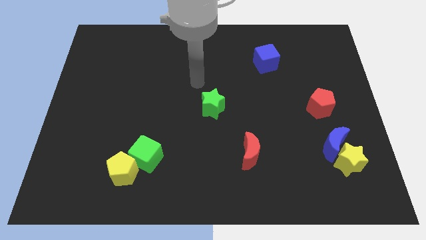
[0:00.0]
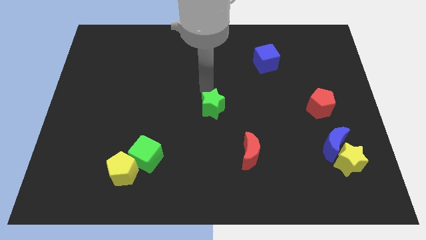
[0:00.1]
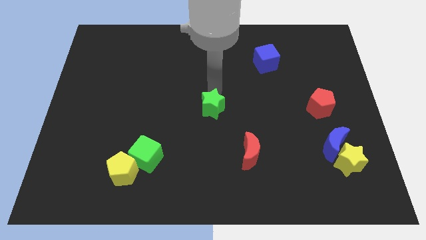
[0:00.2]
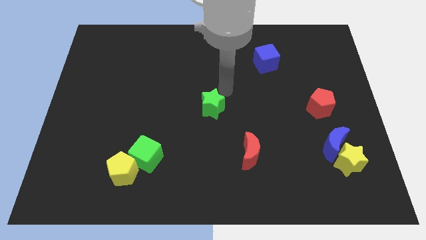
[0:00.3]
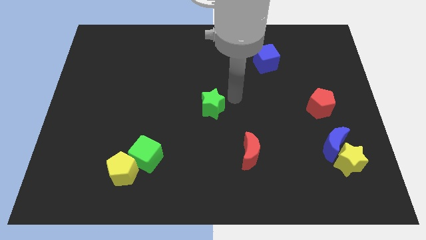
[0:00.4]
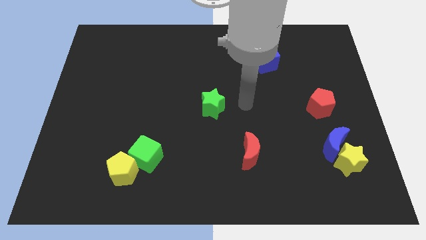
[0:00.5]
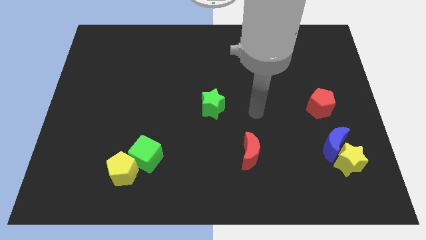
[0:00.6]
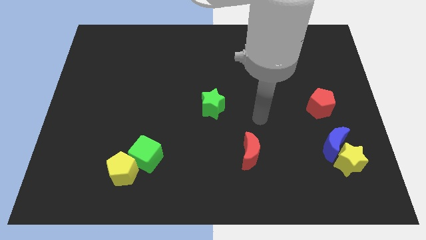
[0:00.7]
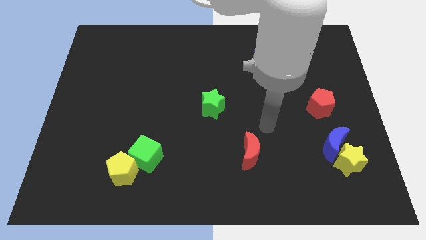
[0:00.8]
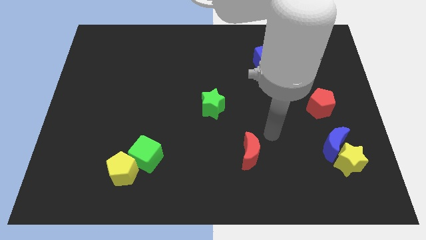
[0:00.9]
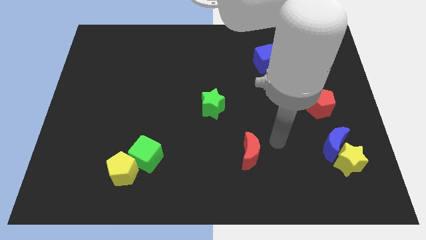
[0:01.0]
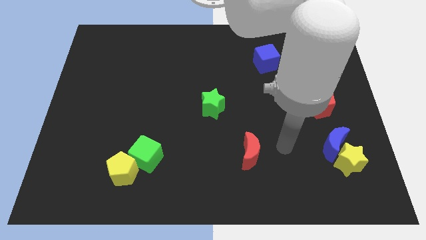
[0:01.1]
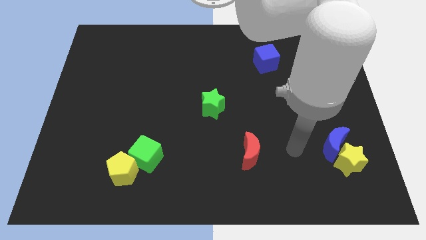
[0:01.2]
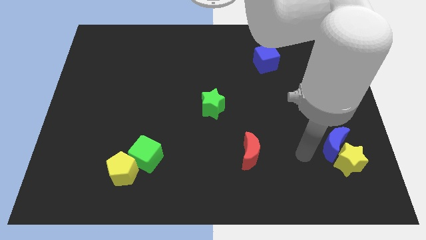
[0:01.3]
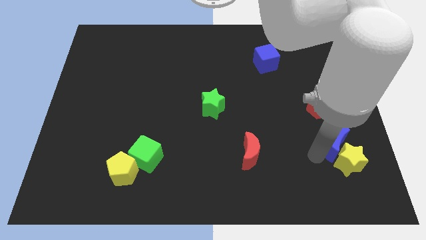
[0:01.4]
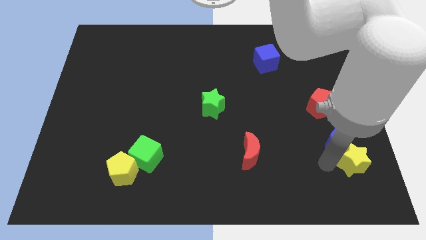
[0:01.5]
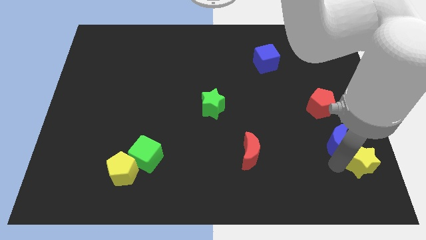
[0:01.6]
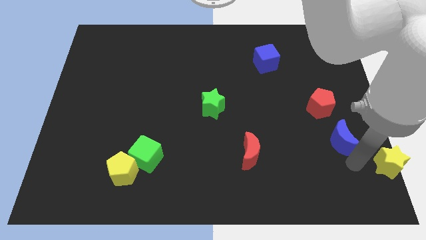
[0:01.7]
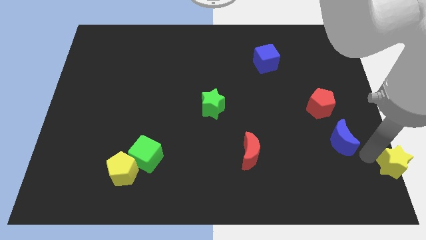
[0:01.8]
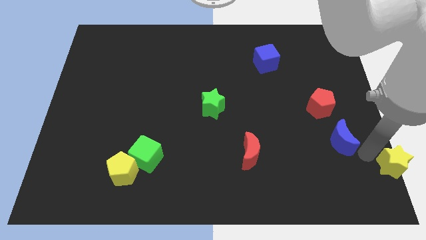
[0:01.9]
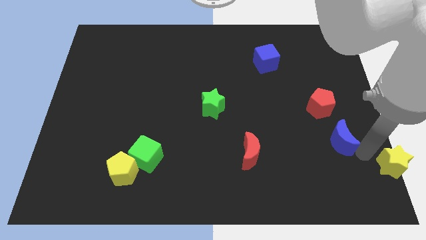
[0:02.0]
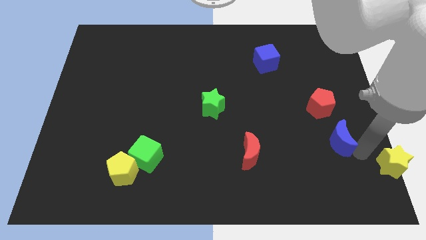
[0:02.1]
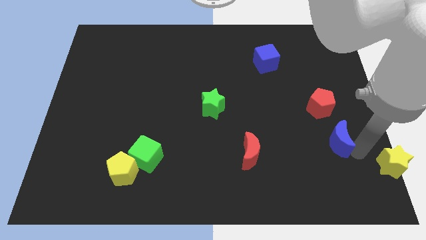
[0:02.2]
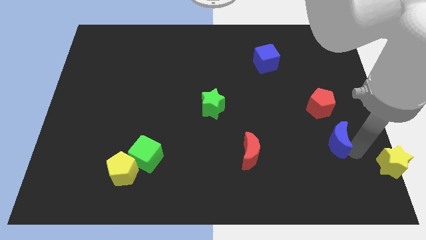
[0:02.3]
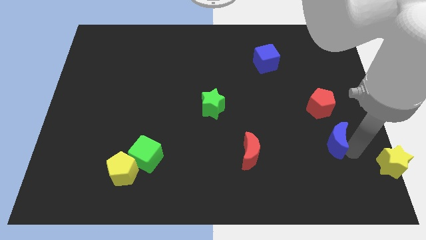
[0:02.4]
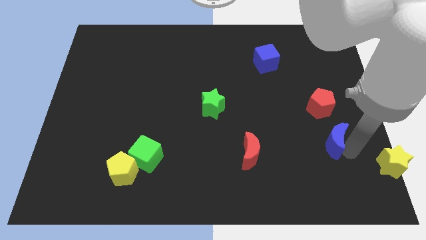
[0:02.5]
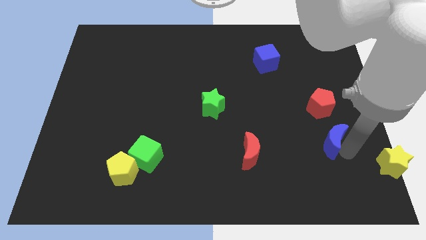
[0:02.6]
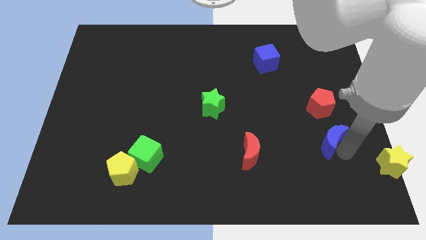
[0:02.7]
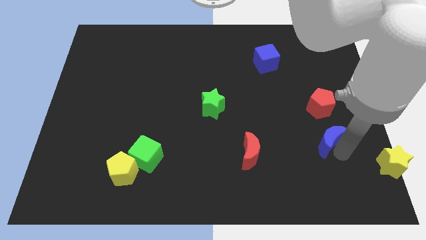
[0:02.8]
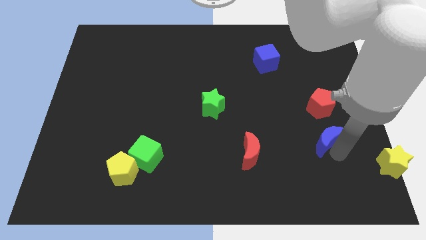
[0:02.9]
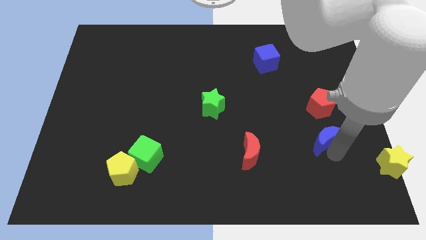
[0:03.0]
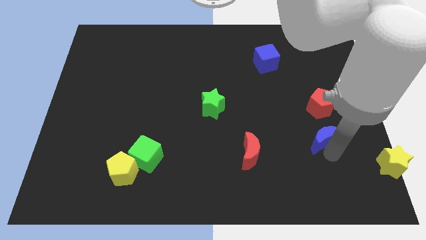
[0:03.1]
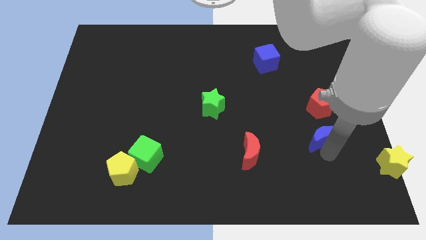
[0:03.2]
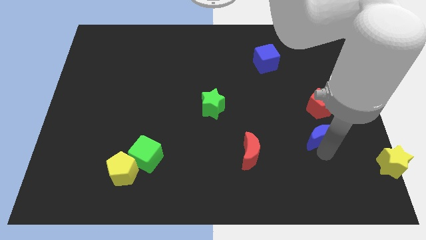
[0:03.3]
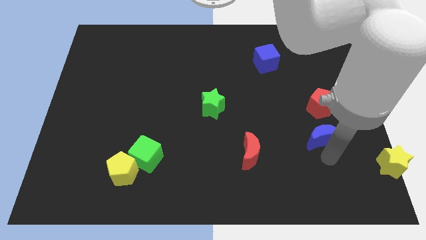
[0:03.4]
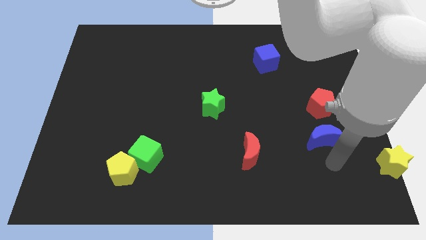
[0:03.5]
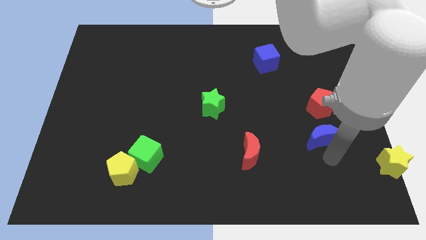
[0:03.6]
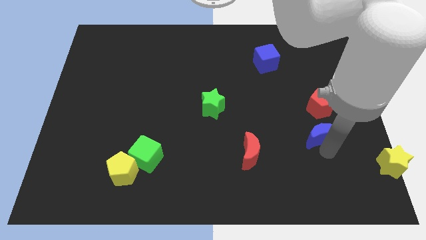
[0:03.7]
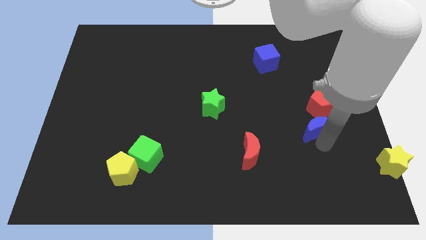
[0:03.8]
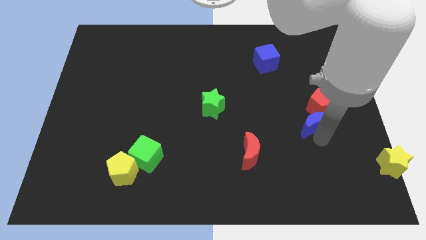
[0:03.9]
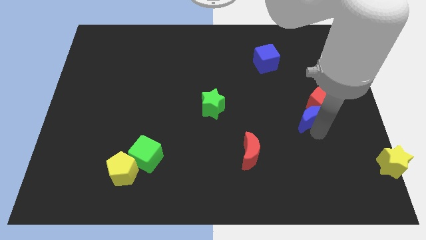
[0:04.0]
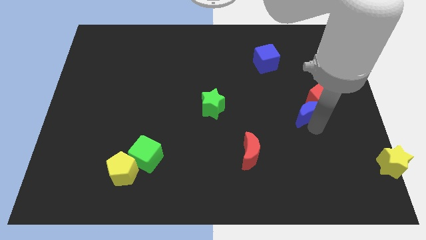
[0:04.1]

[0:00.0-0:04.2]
move the blue moon a little upwards

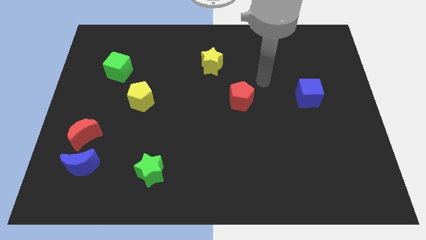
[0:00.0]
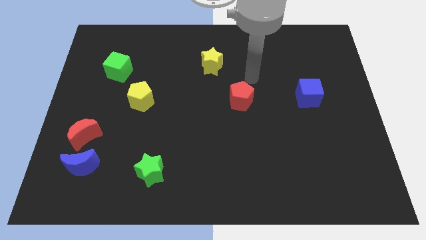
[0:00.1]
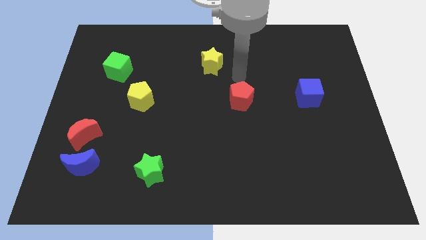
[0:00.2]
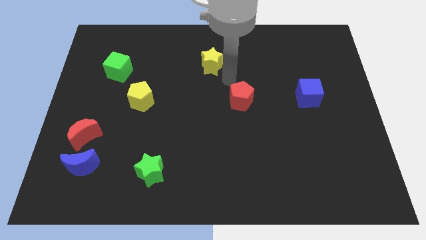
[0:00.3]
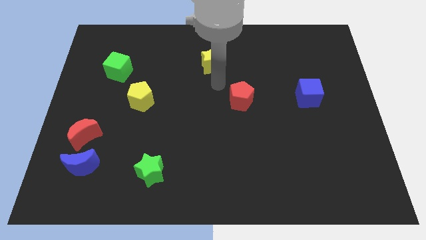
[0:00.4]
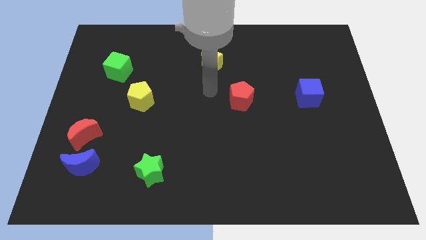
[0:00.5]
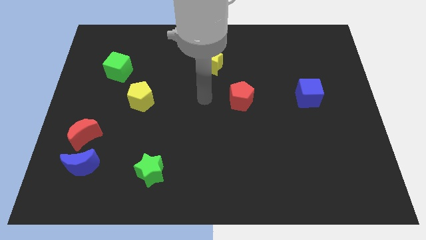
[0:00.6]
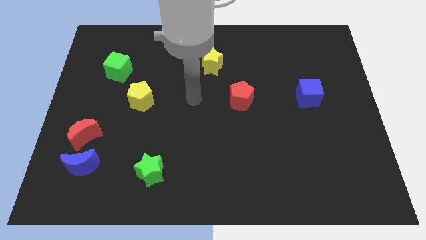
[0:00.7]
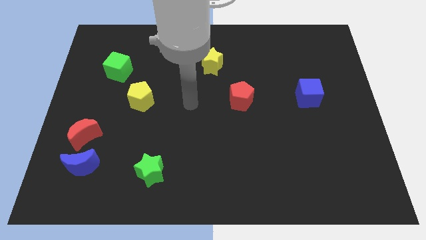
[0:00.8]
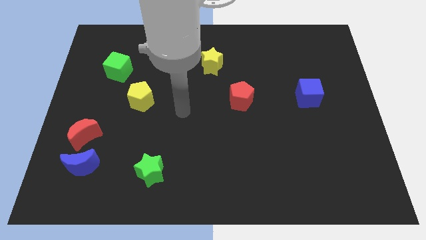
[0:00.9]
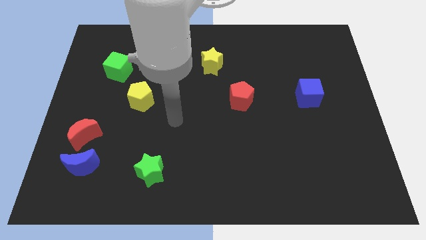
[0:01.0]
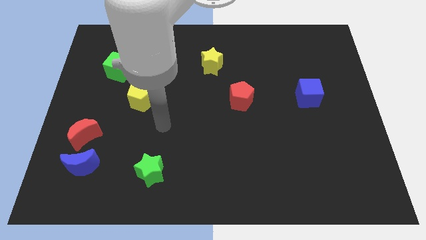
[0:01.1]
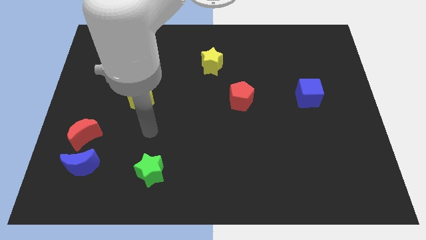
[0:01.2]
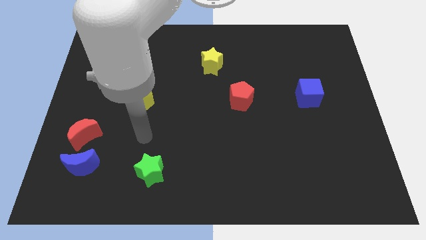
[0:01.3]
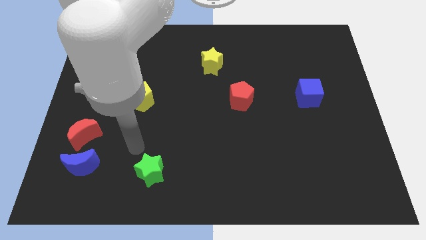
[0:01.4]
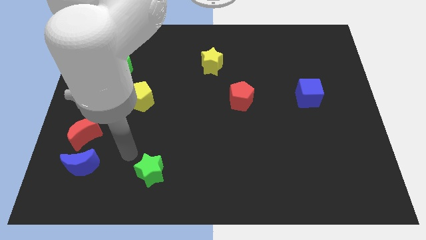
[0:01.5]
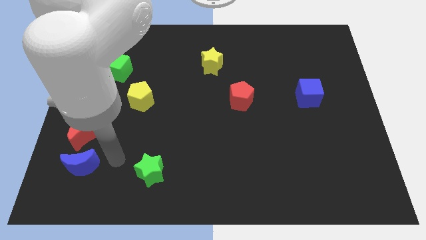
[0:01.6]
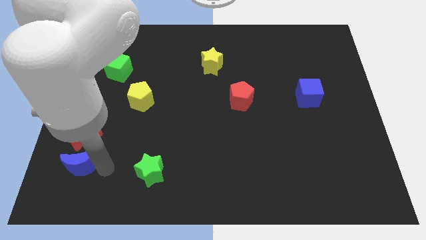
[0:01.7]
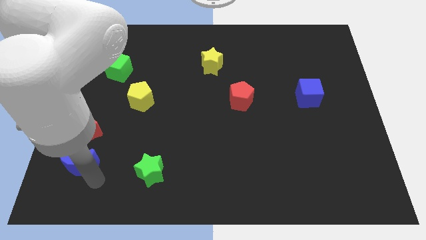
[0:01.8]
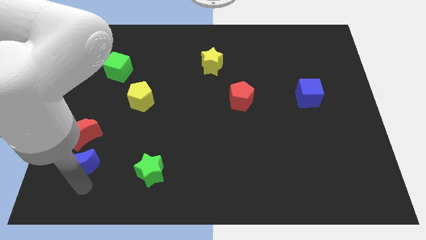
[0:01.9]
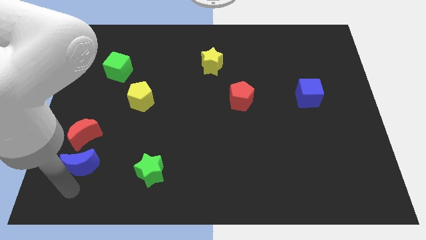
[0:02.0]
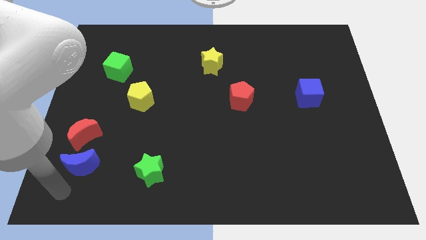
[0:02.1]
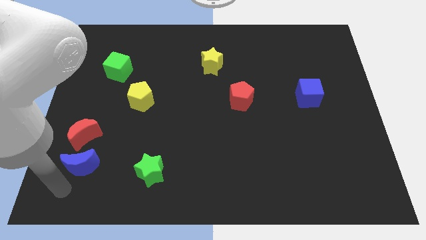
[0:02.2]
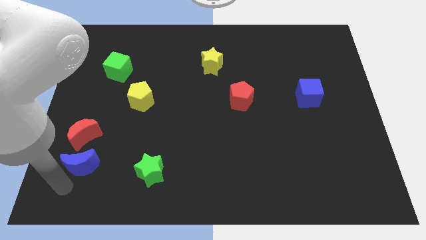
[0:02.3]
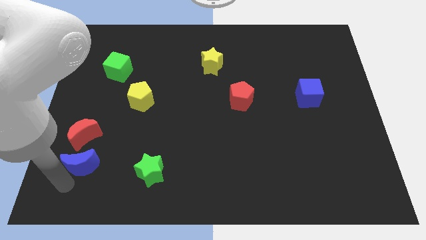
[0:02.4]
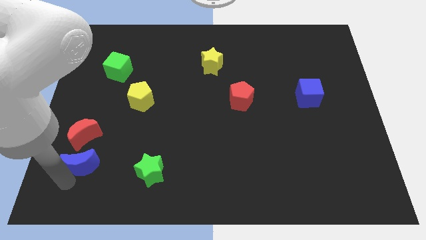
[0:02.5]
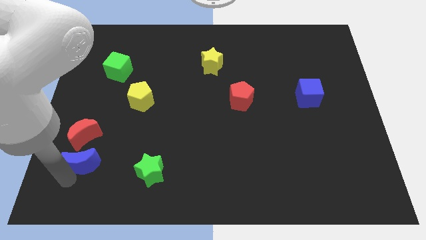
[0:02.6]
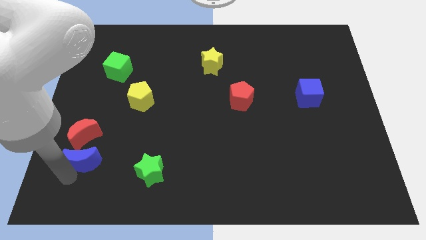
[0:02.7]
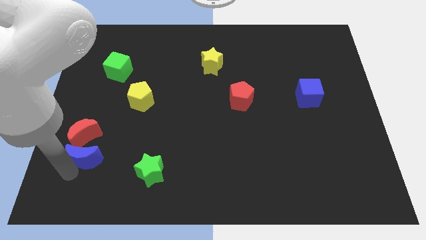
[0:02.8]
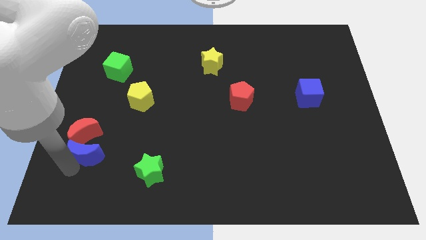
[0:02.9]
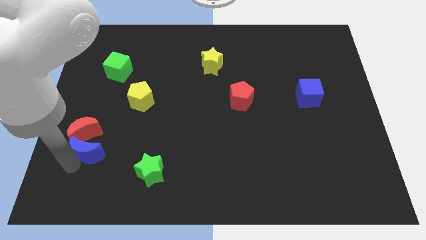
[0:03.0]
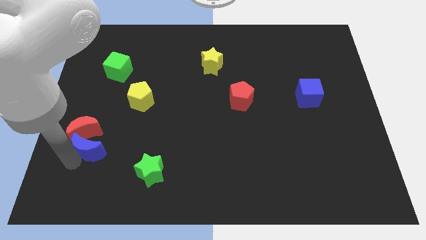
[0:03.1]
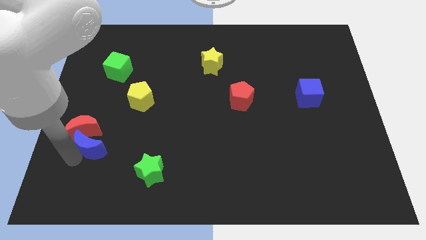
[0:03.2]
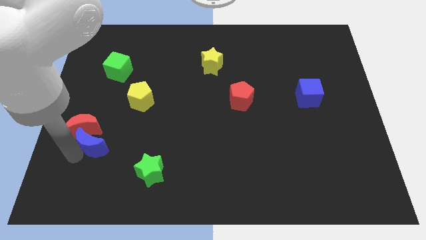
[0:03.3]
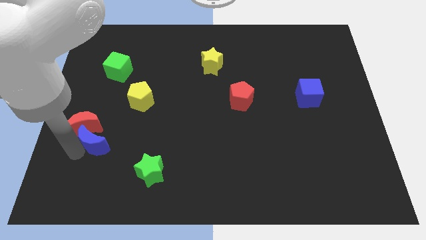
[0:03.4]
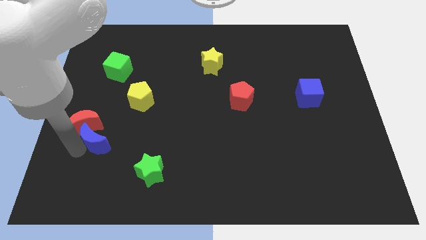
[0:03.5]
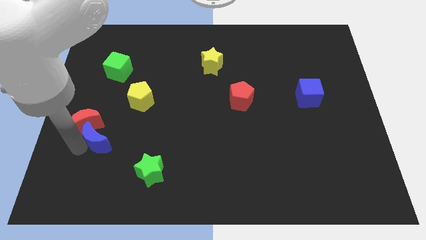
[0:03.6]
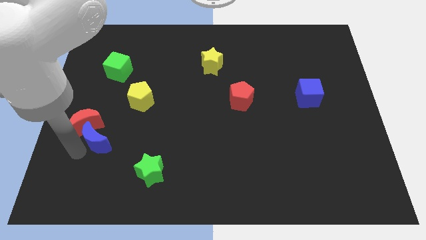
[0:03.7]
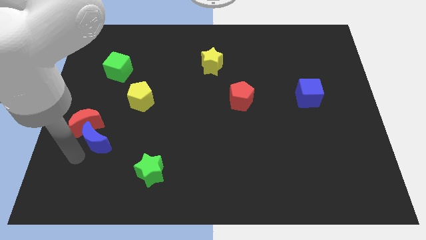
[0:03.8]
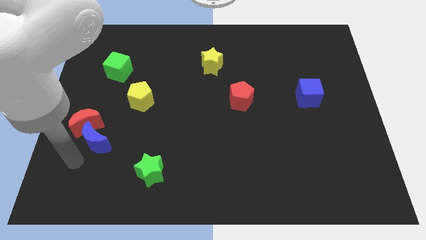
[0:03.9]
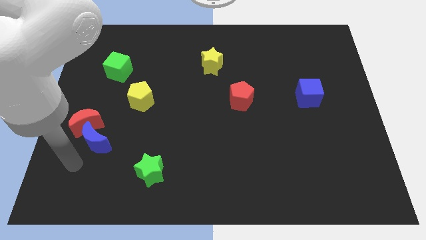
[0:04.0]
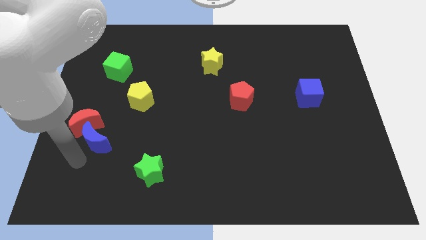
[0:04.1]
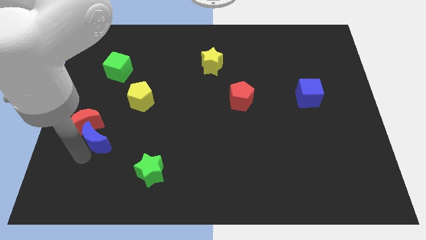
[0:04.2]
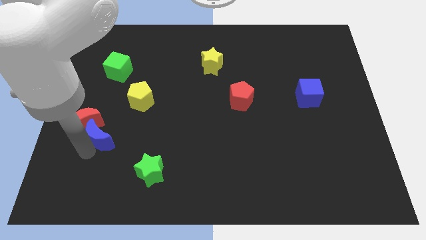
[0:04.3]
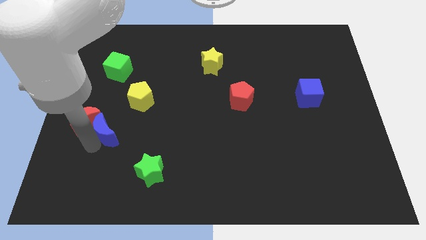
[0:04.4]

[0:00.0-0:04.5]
push the blue moon a bit up and to the right
